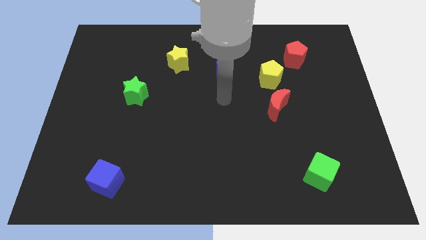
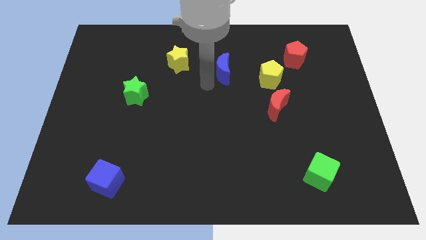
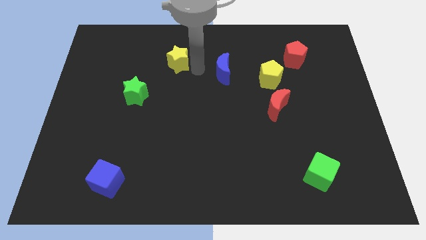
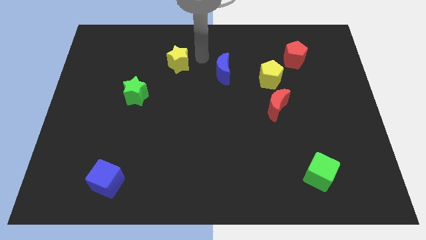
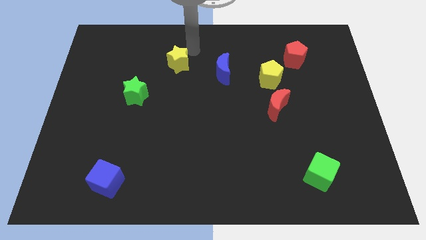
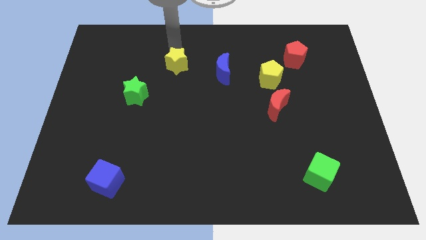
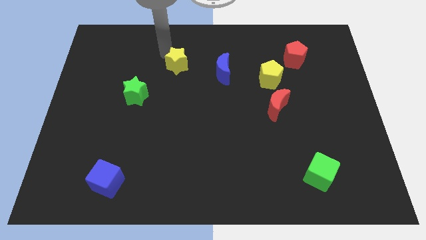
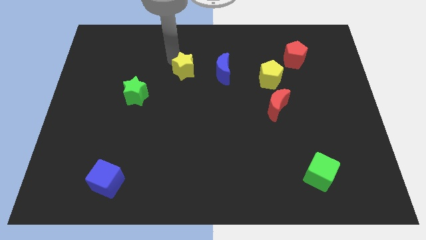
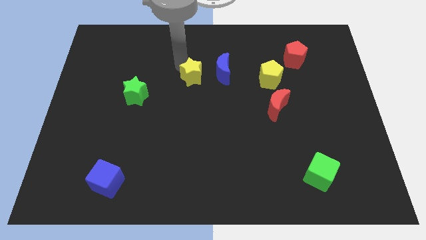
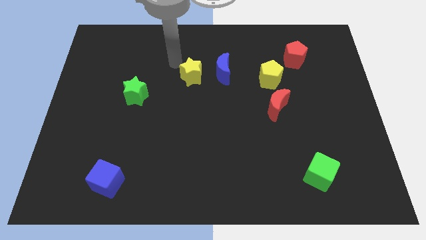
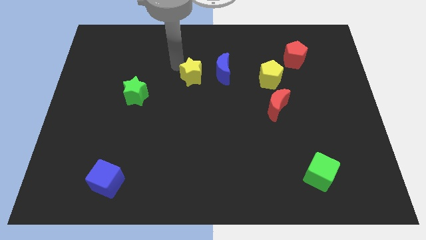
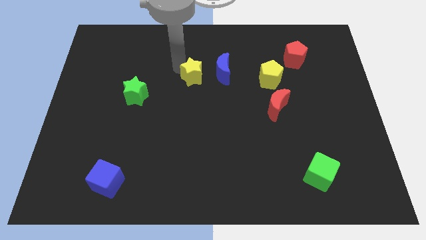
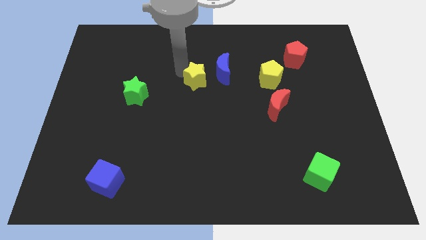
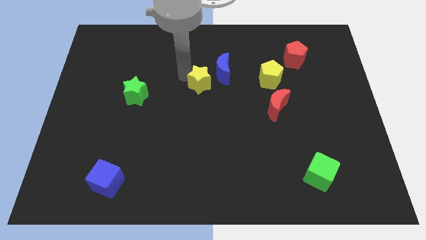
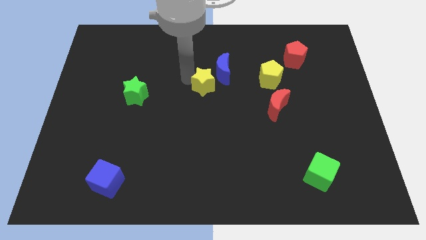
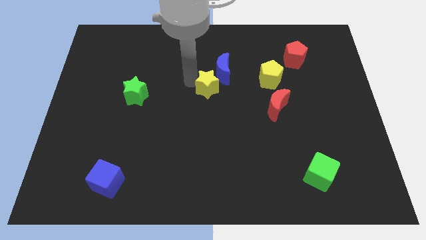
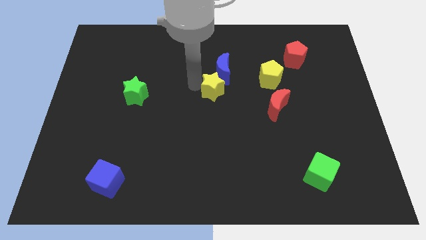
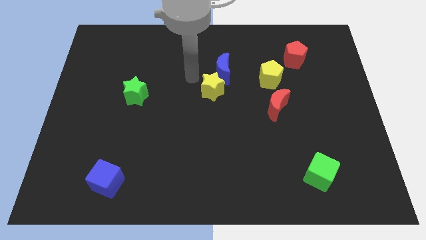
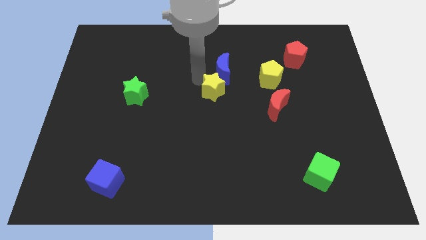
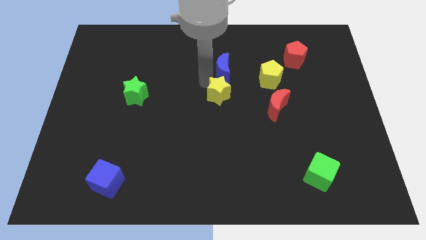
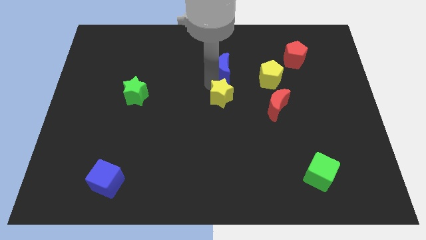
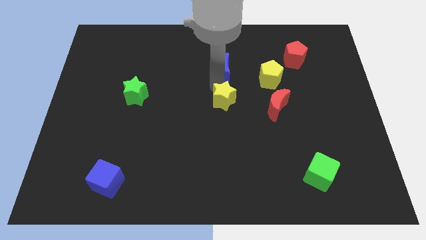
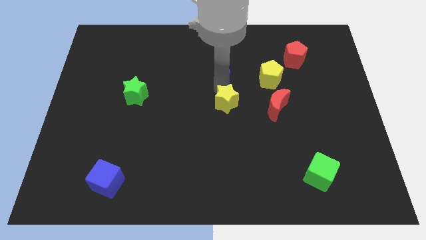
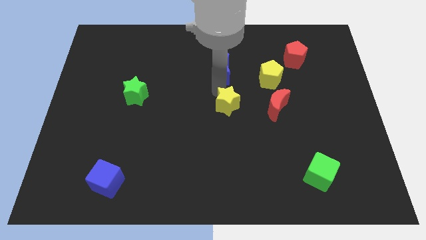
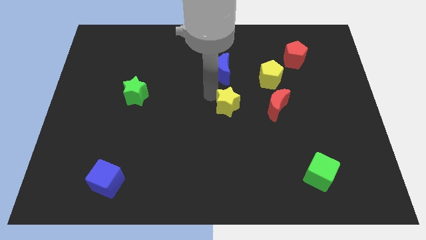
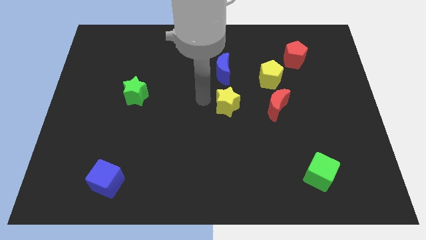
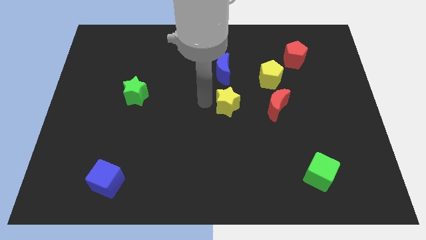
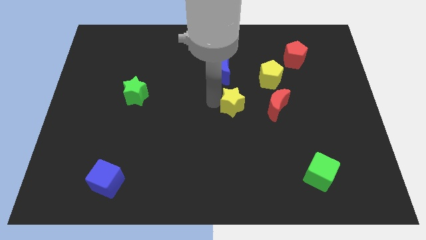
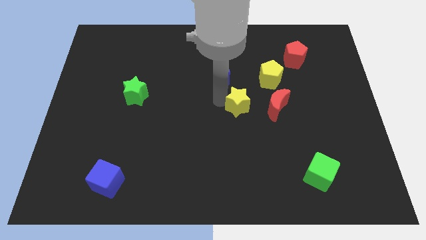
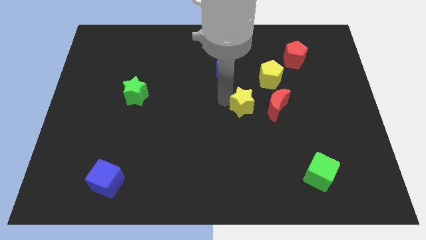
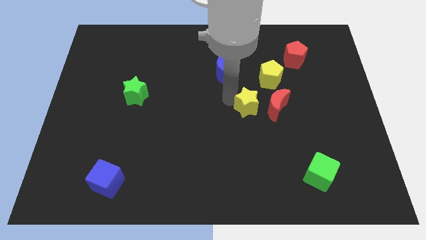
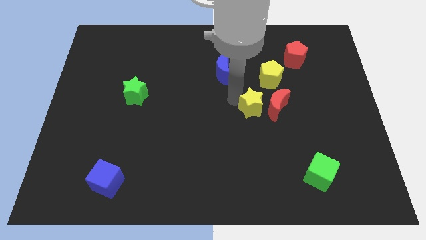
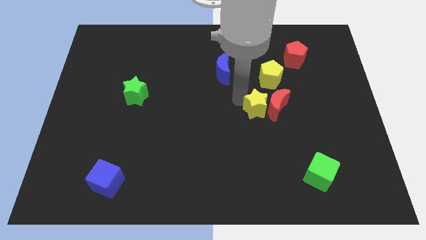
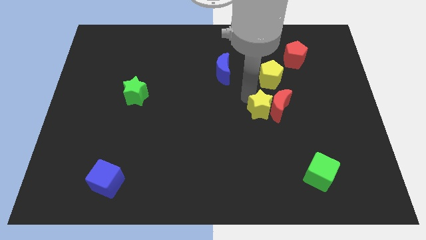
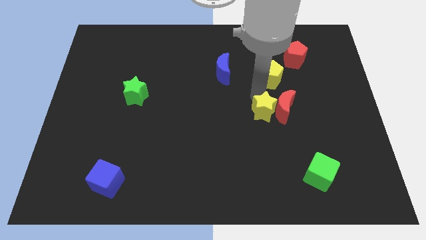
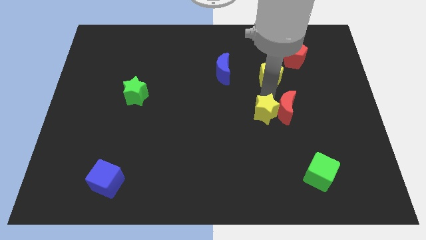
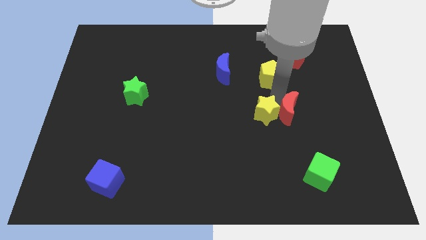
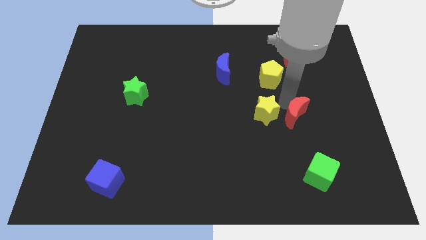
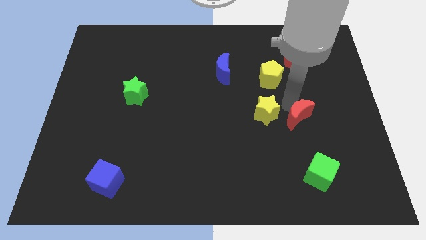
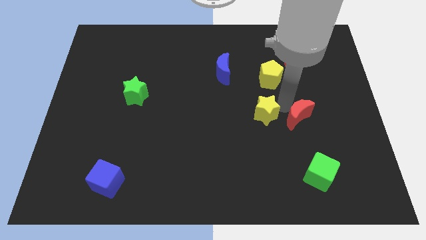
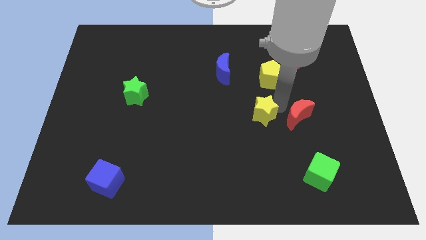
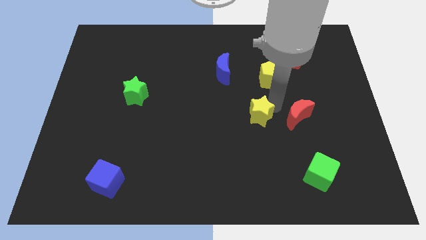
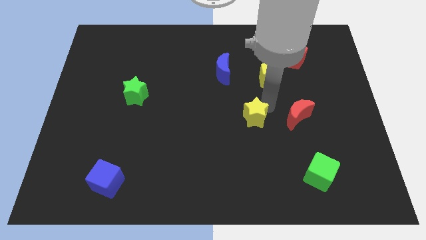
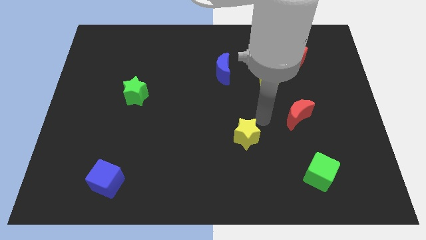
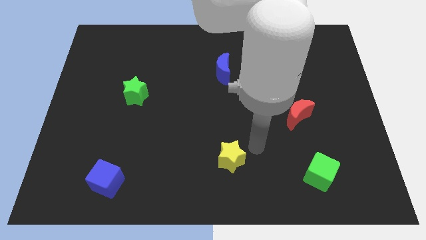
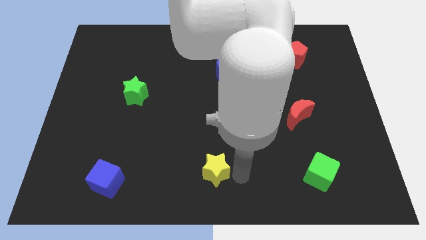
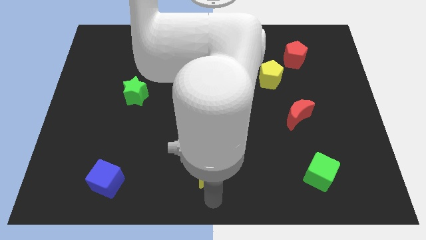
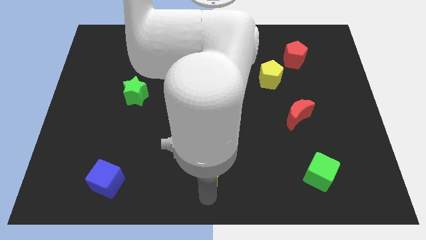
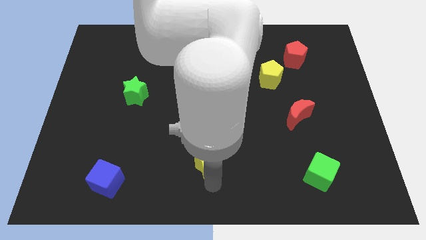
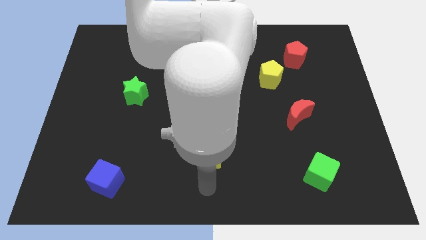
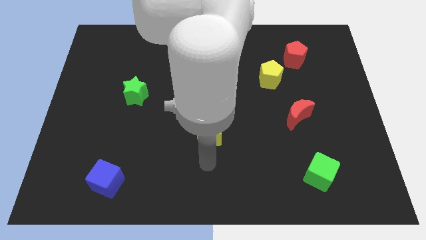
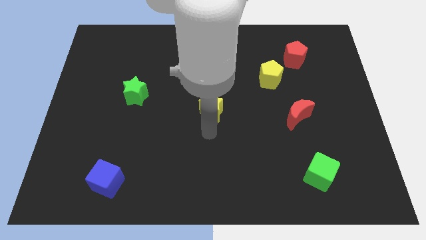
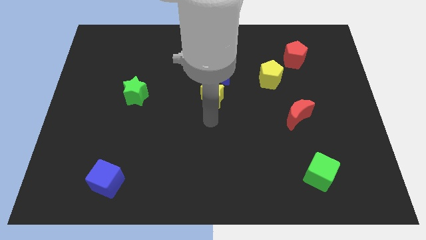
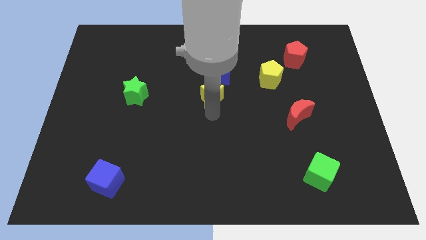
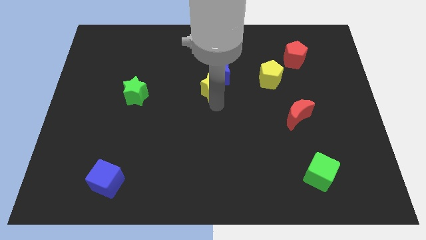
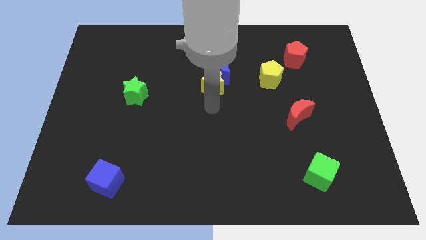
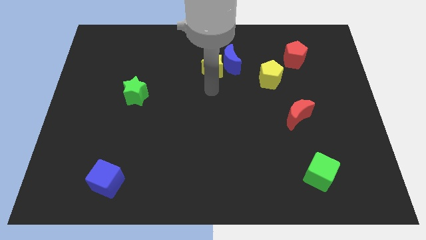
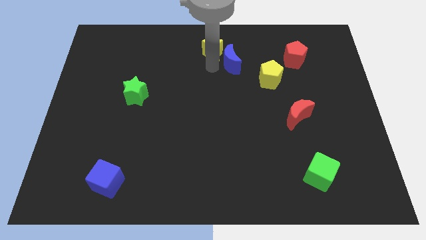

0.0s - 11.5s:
put the yellow star to the top side

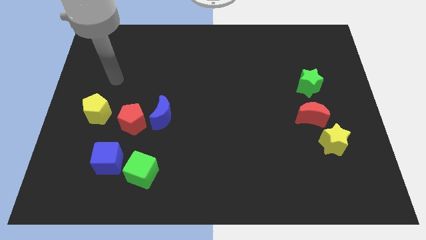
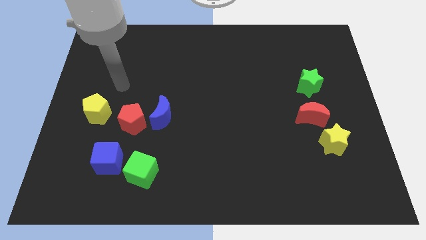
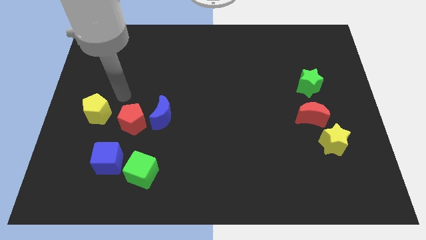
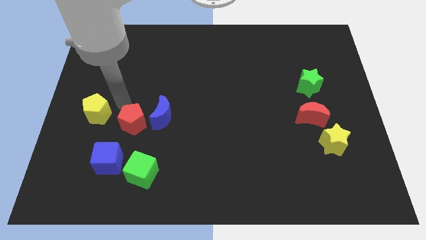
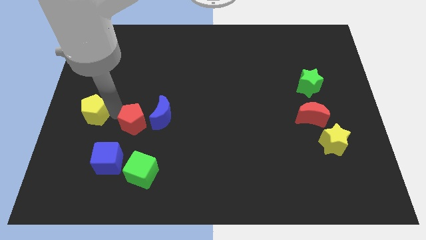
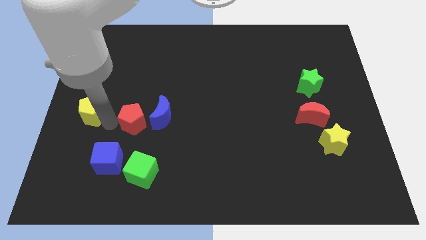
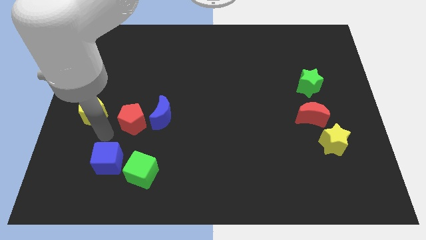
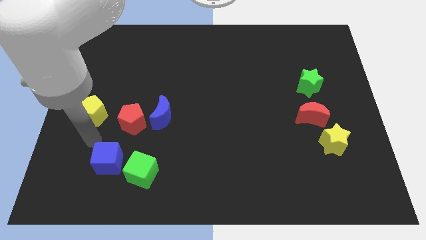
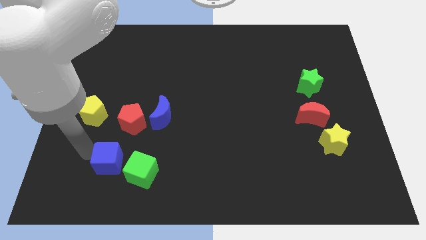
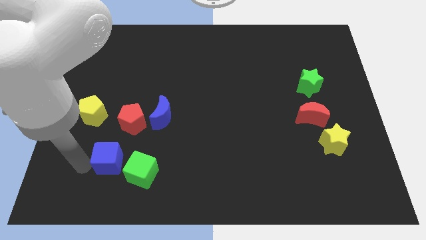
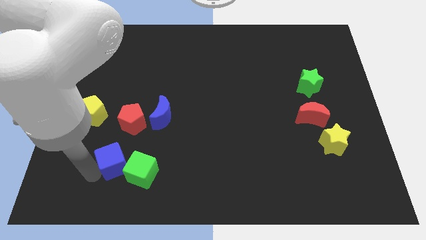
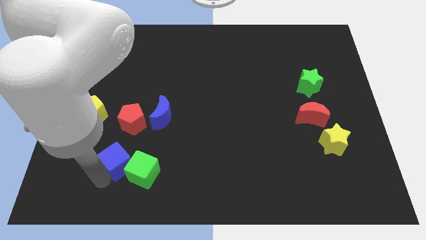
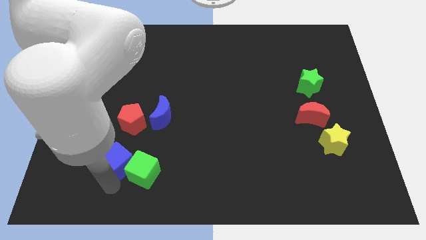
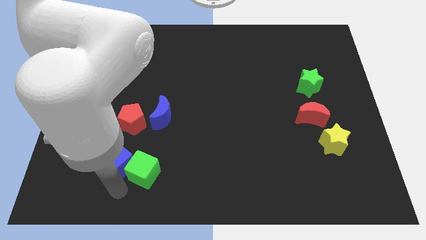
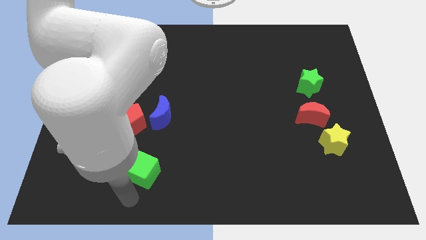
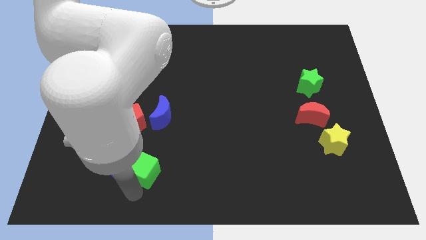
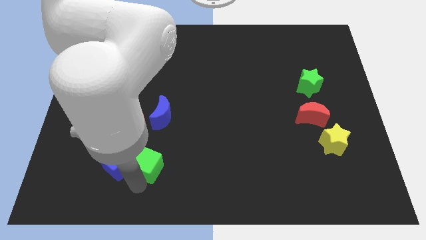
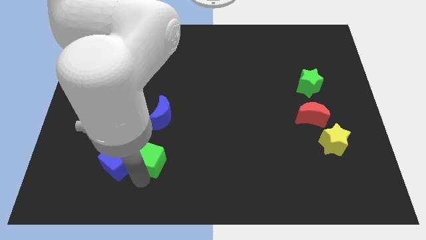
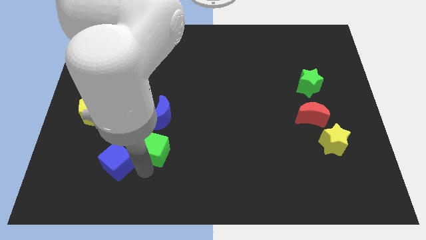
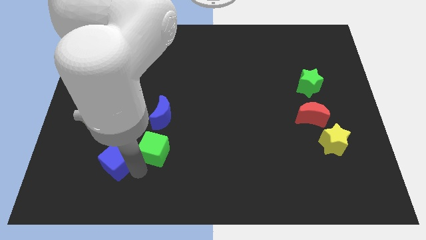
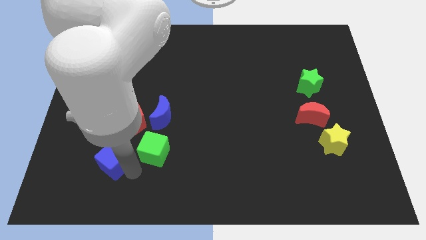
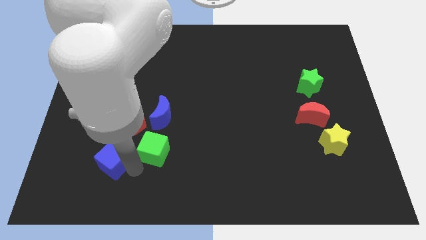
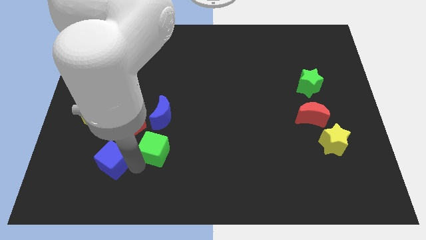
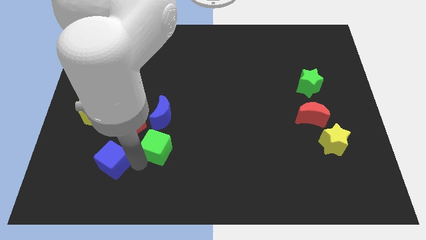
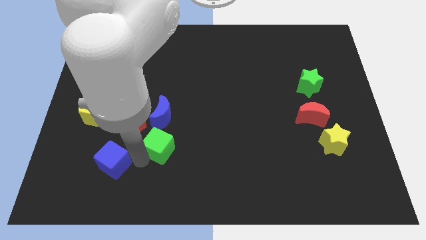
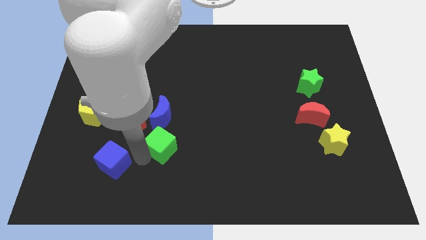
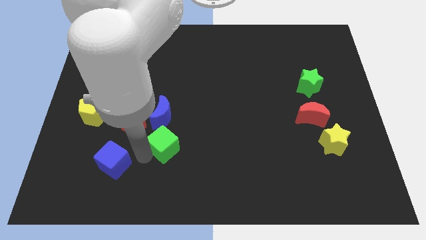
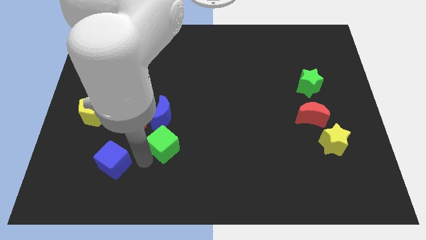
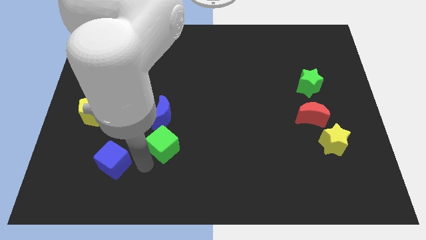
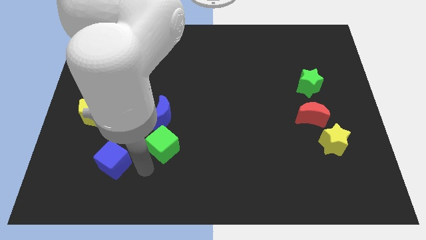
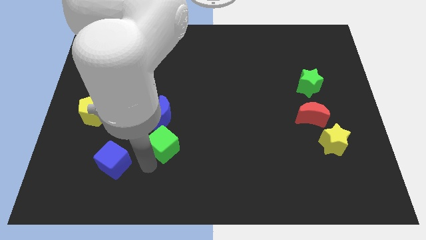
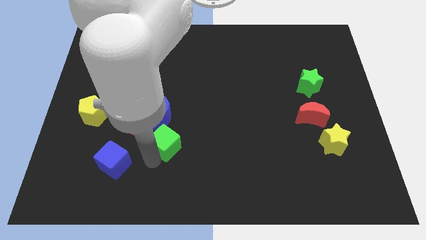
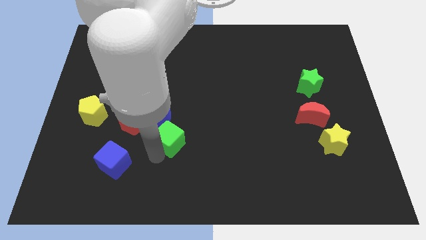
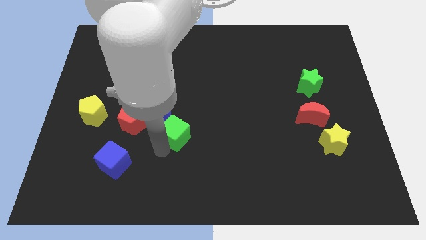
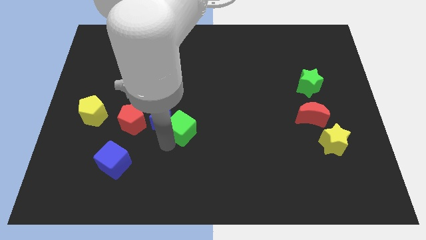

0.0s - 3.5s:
push the green cube to the middle of the board
